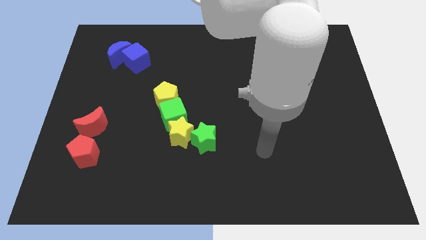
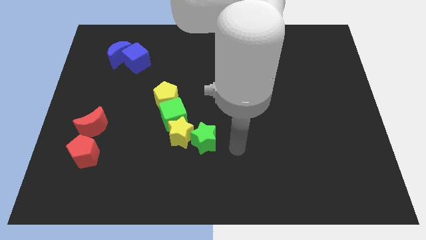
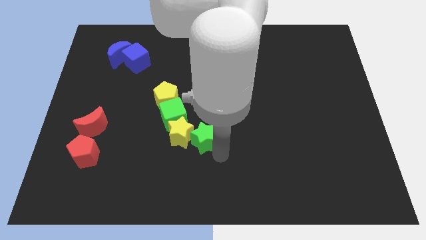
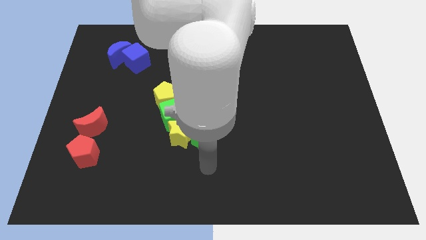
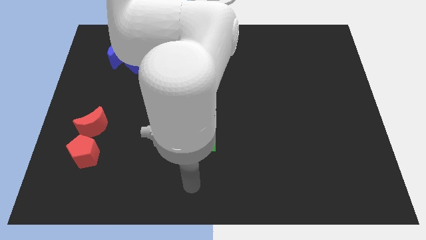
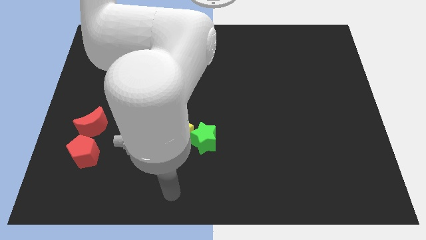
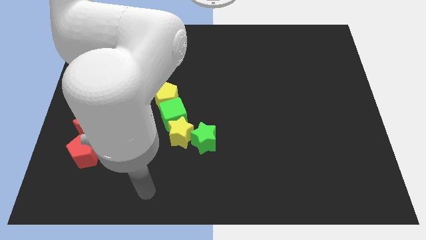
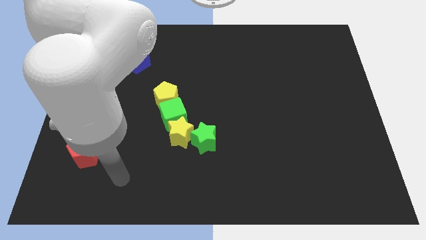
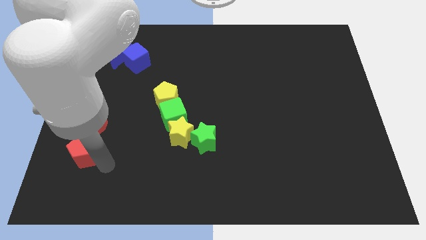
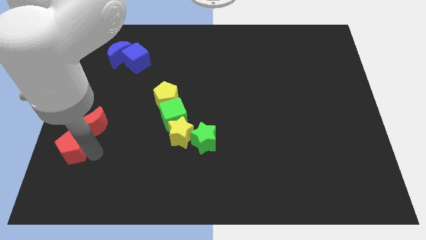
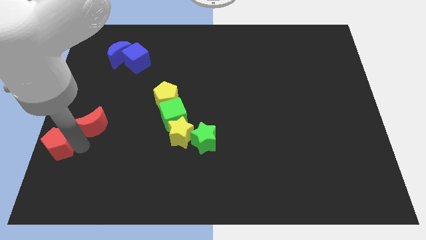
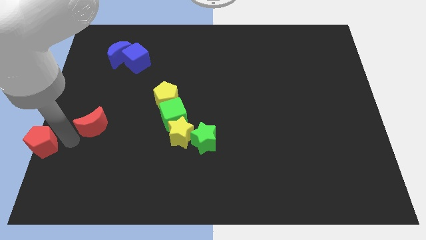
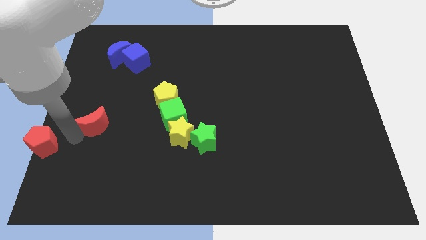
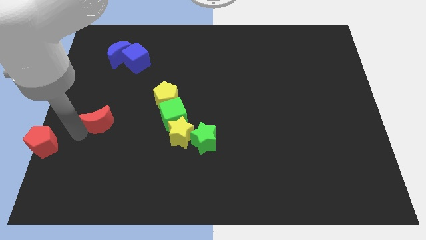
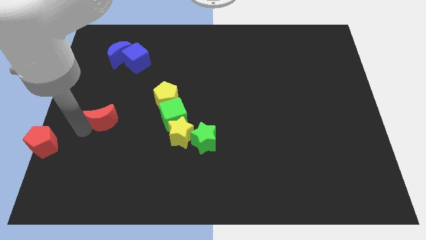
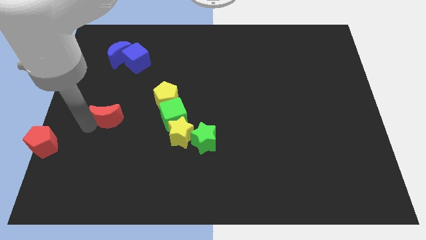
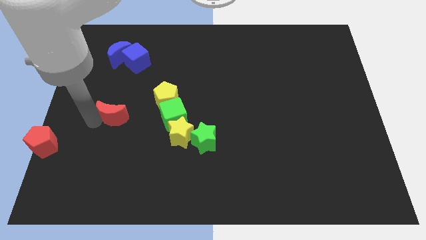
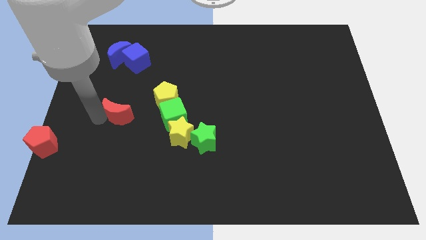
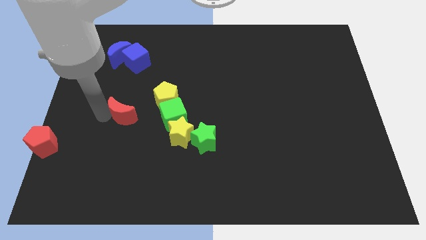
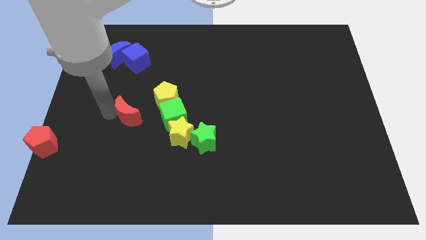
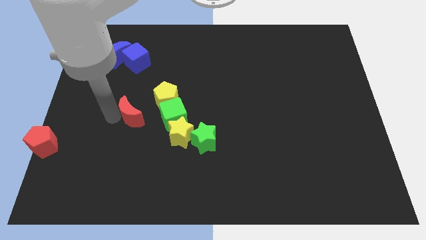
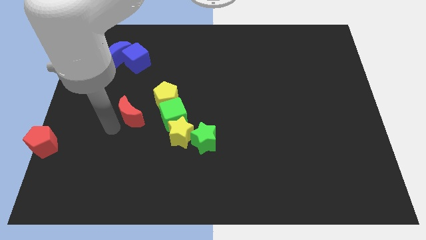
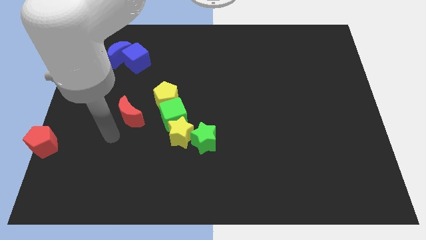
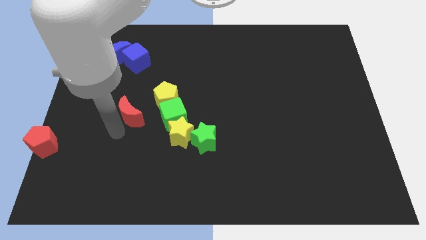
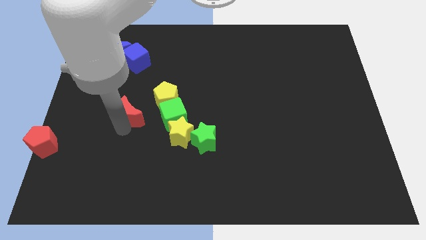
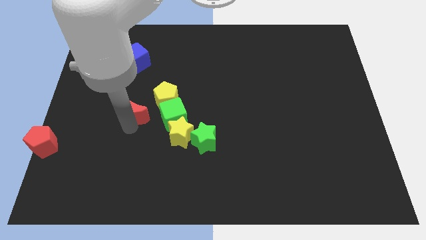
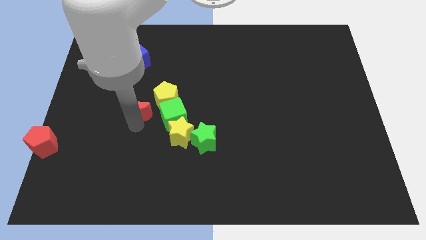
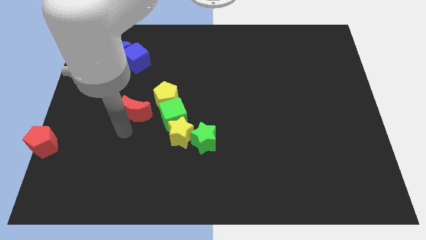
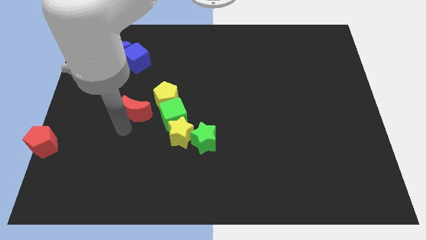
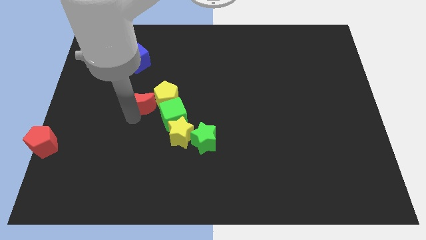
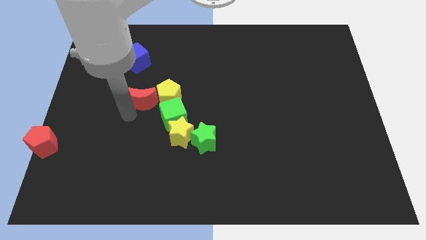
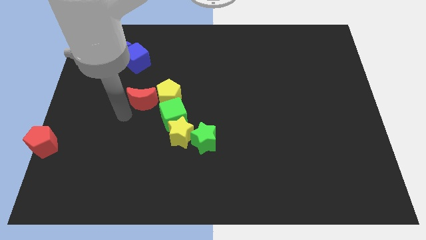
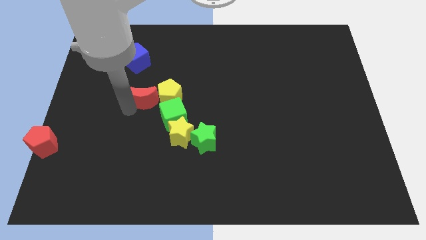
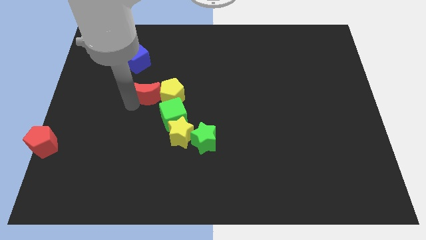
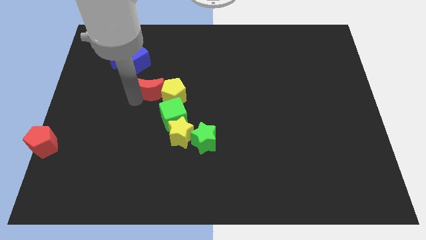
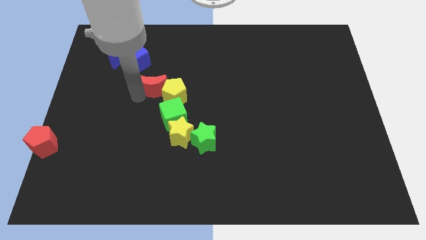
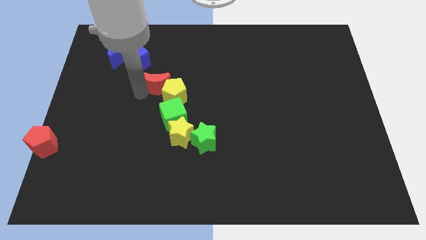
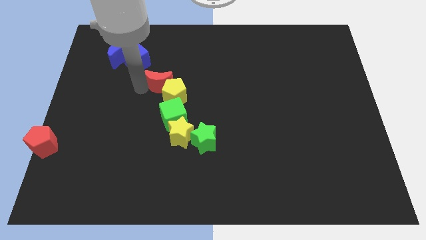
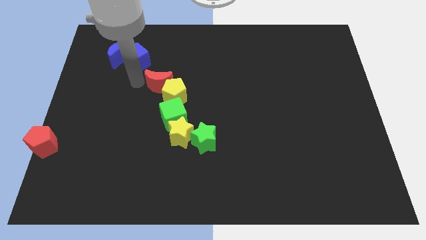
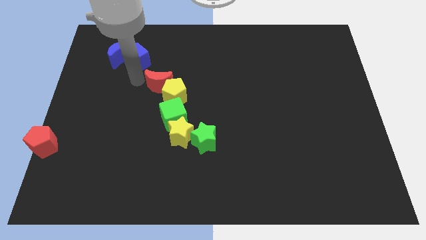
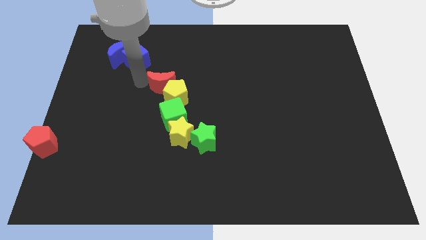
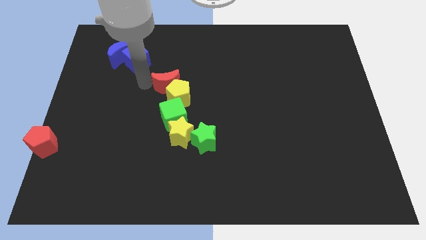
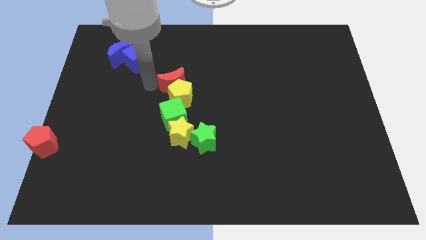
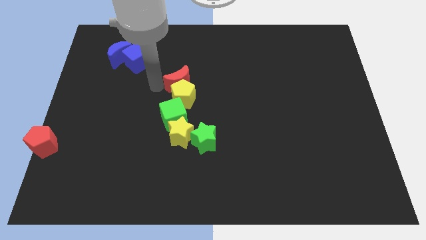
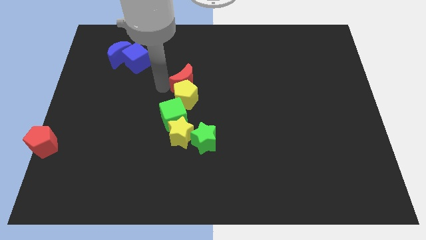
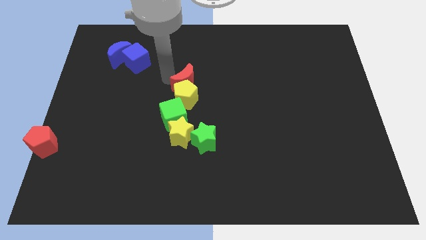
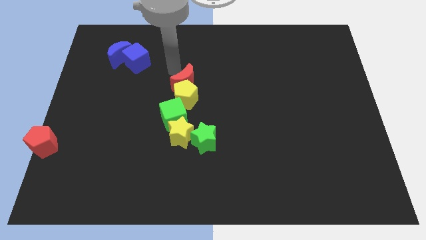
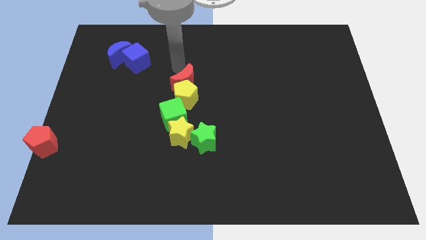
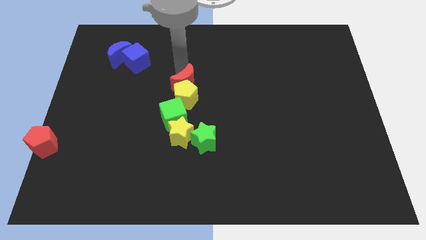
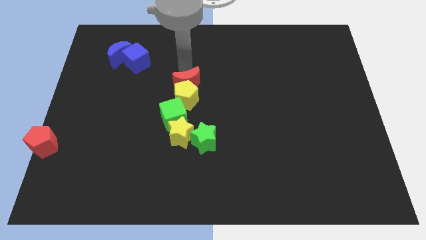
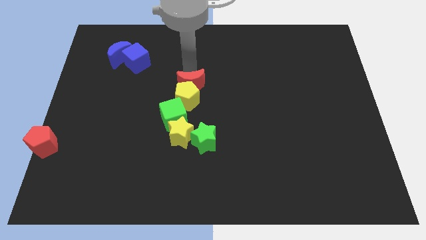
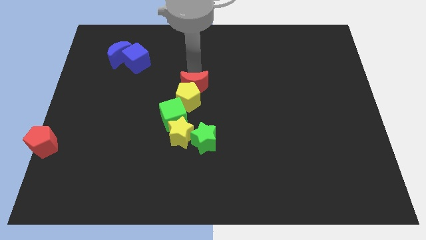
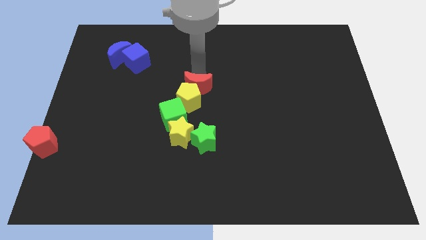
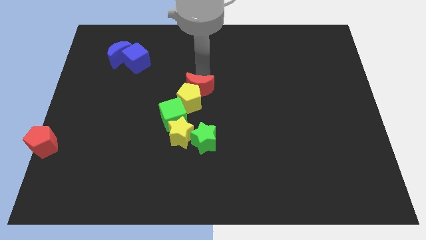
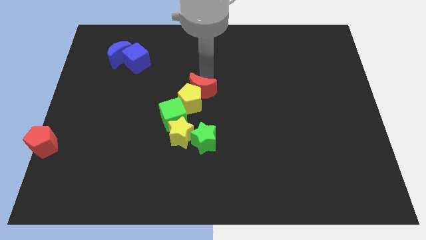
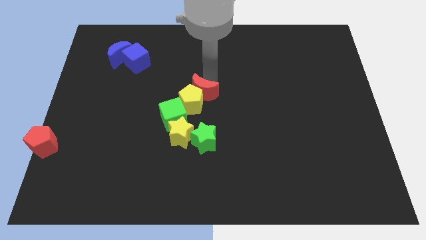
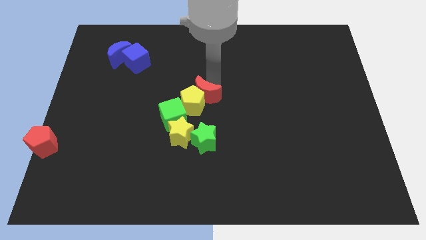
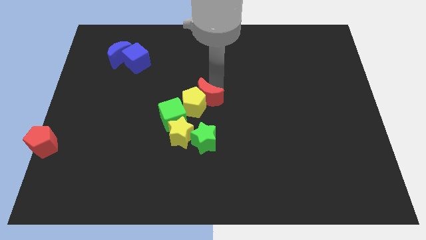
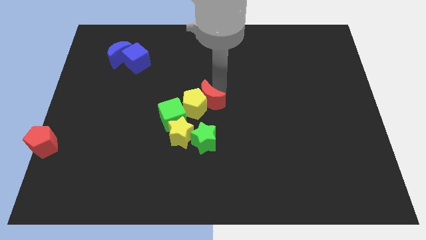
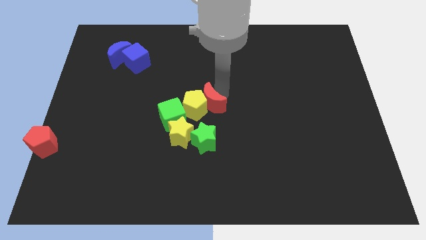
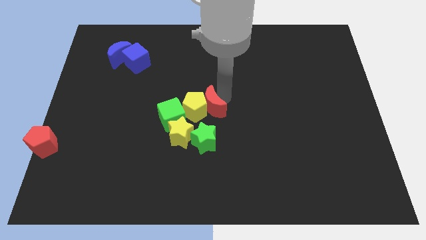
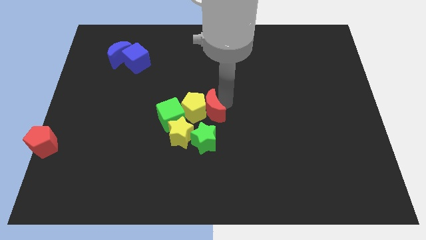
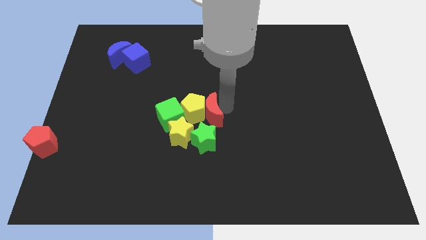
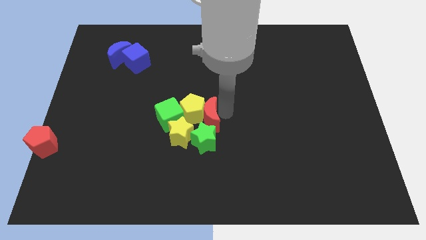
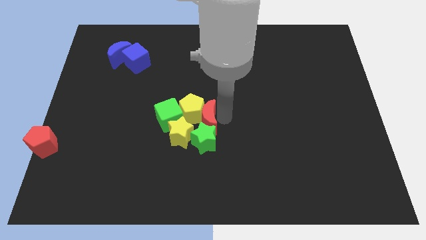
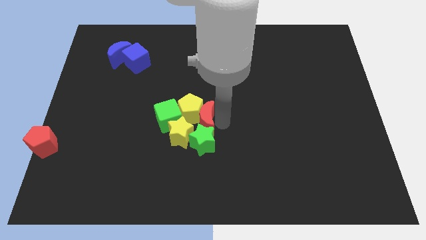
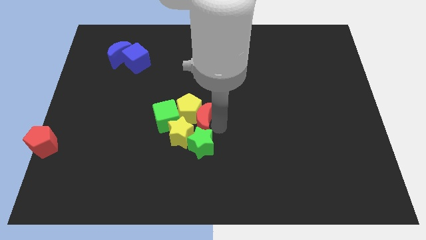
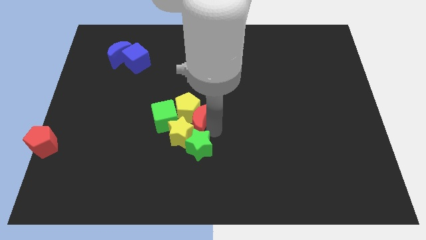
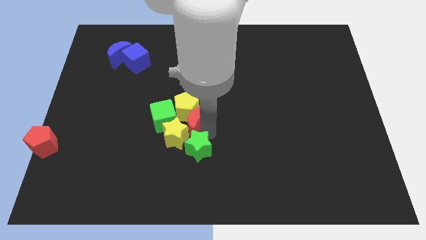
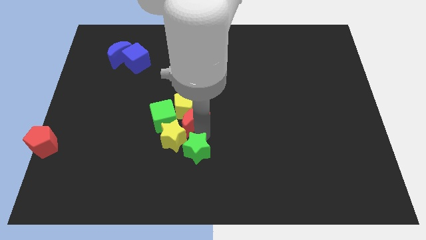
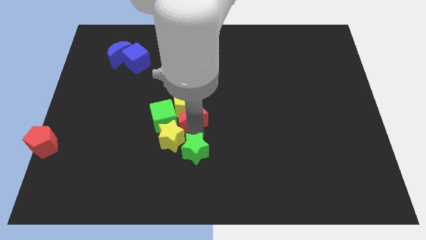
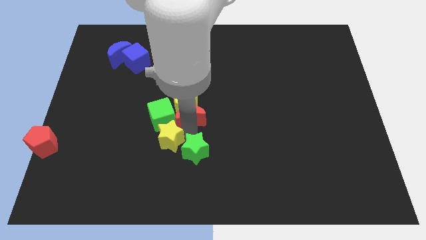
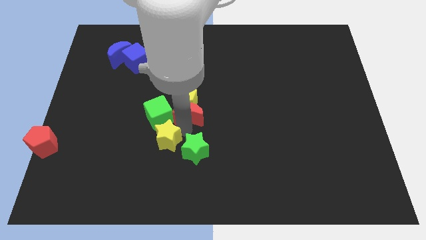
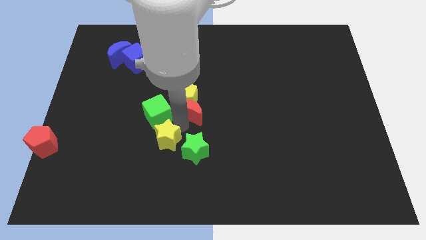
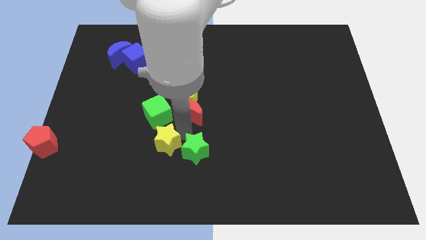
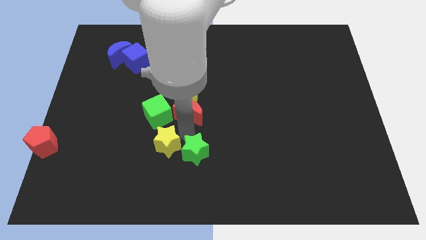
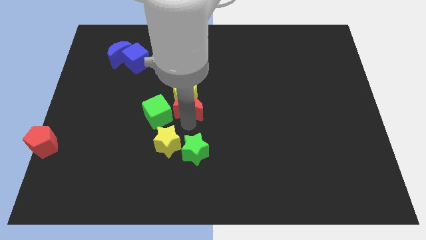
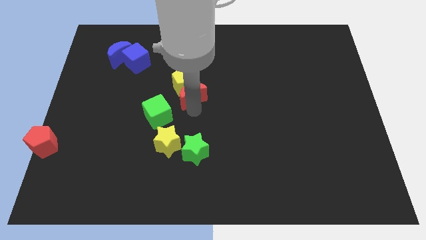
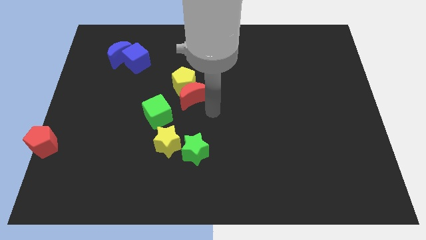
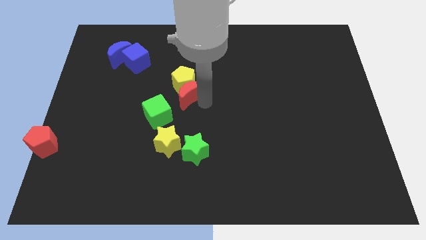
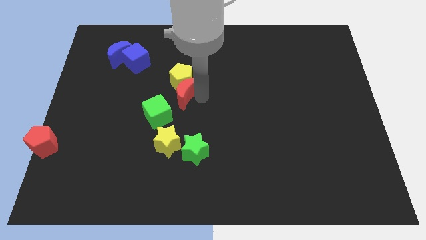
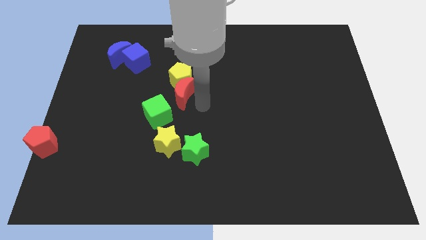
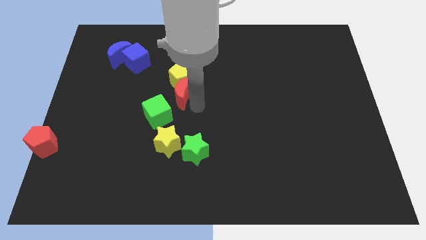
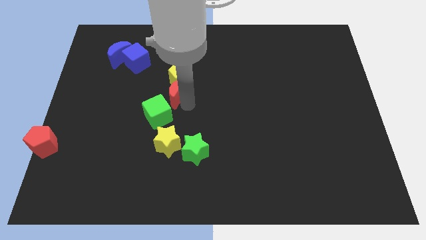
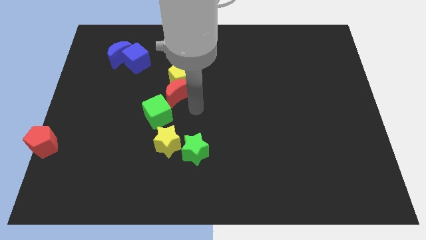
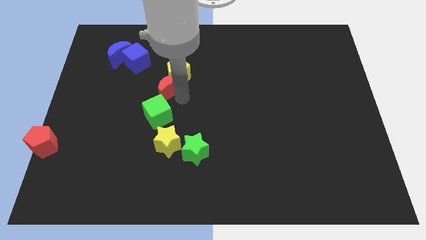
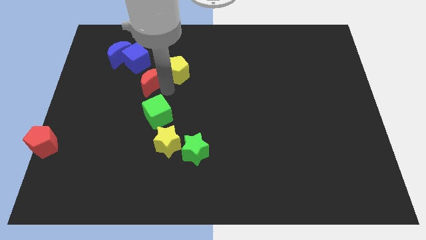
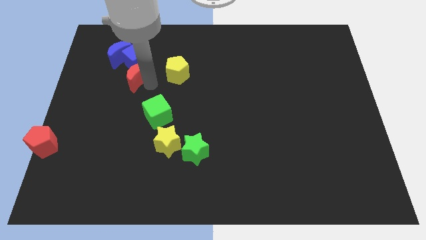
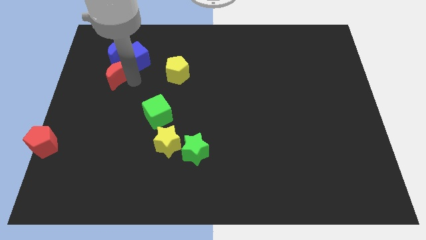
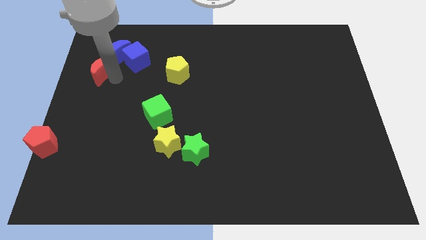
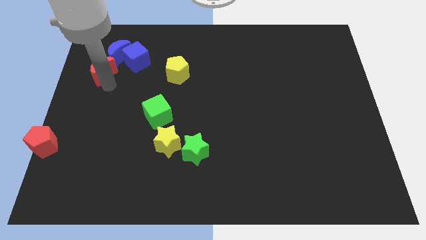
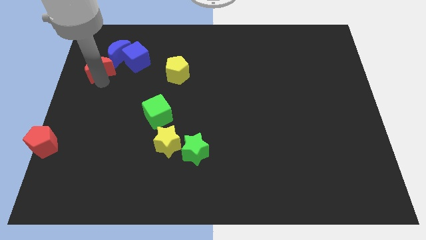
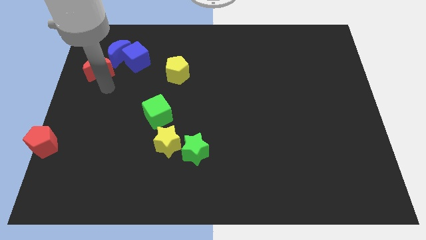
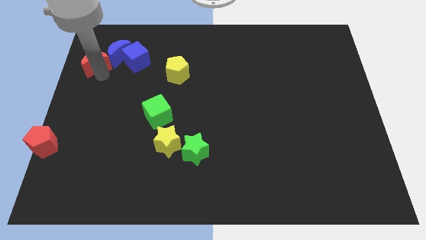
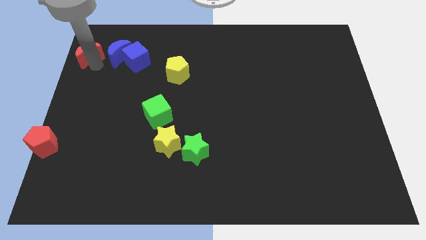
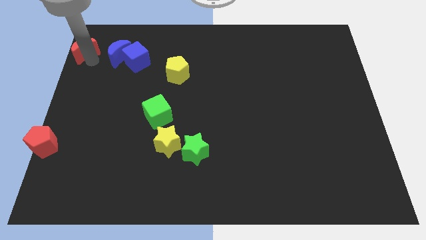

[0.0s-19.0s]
push the red moon to the upper left corner
